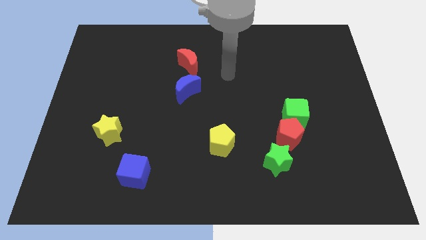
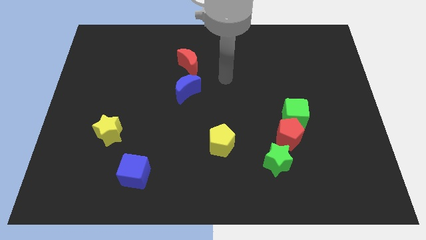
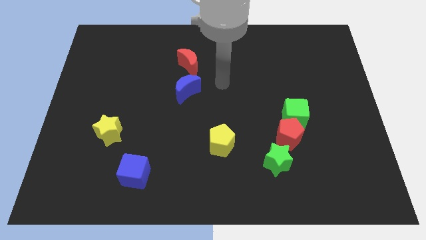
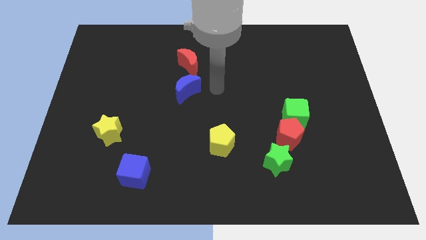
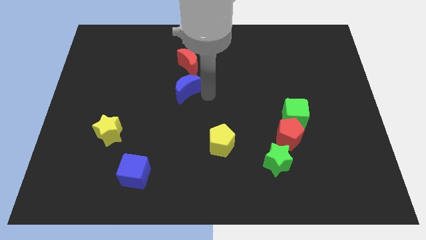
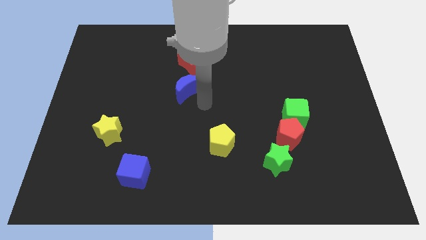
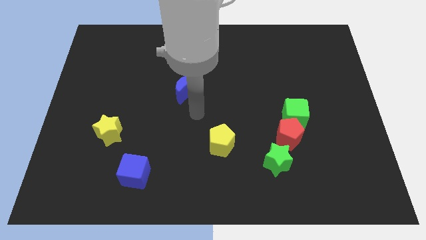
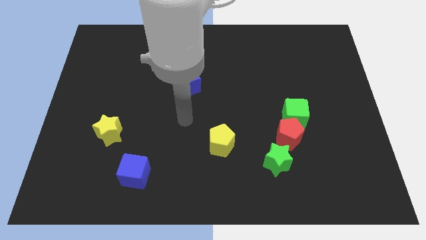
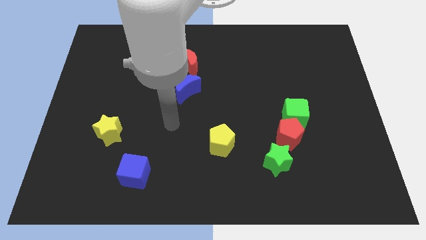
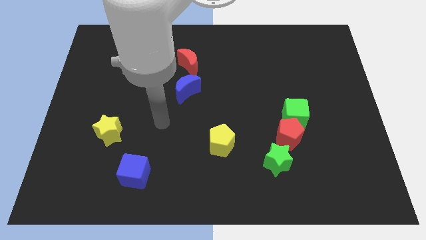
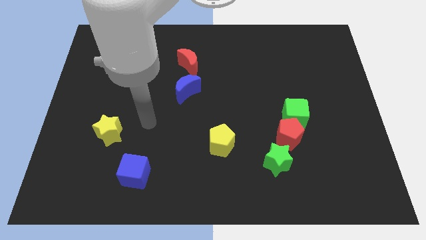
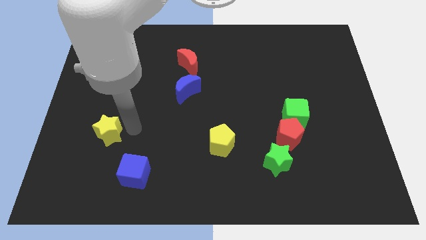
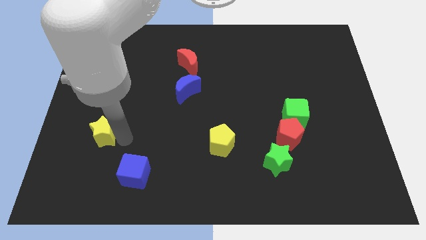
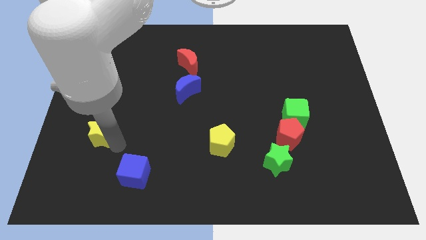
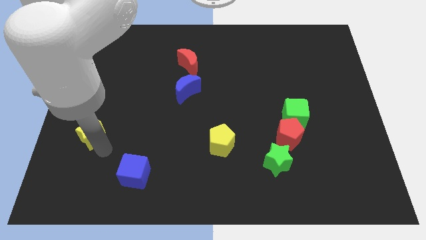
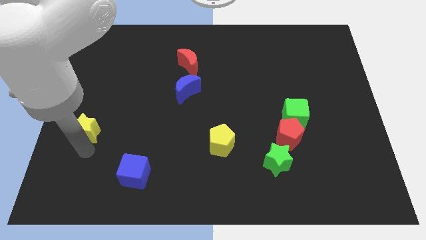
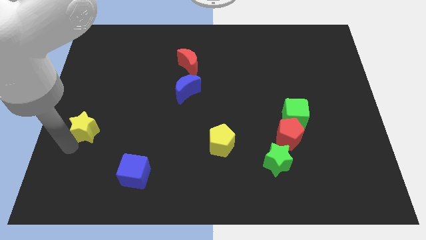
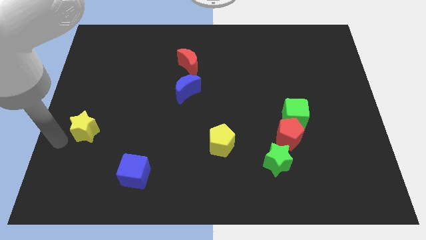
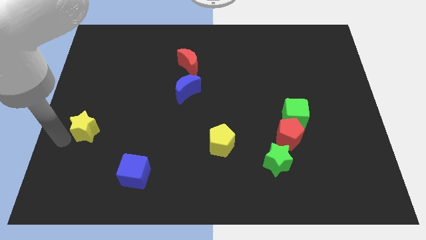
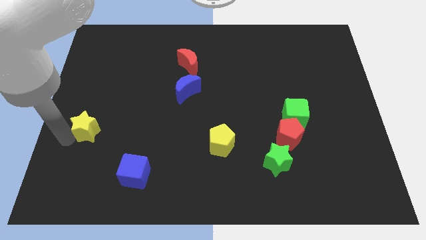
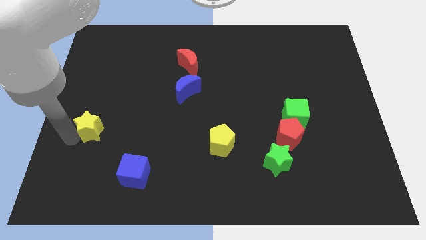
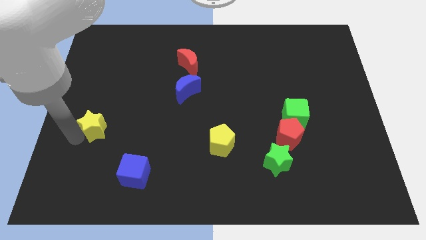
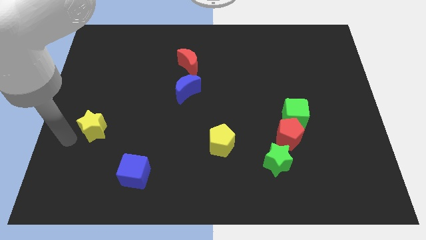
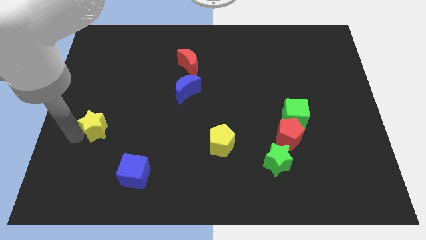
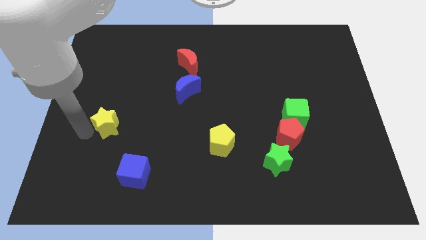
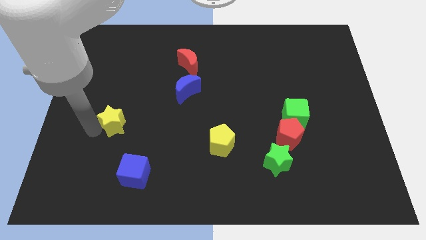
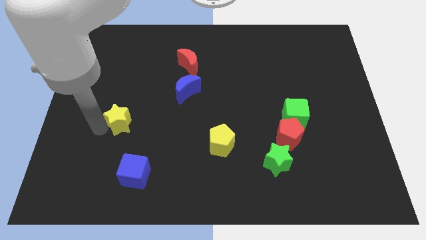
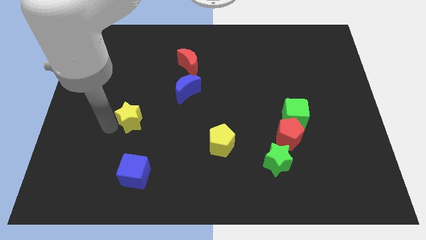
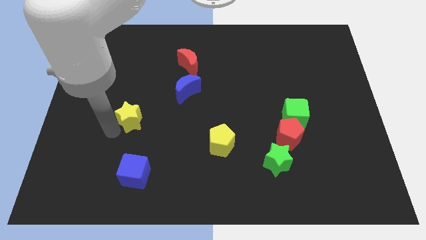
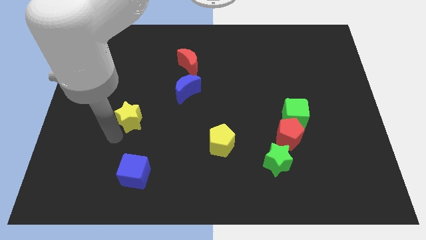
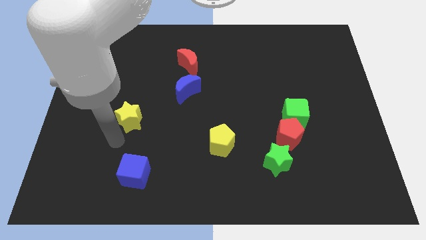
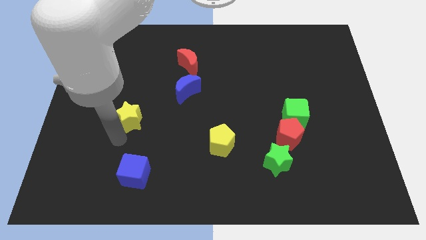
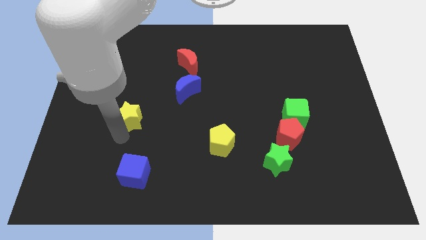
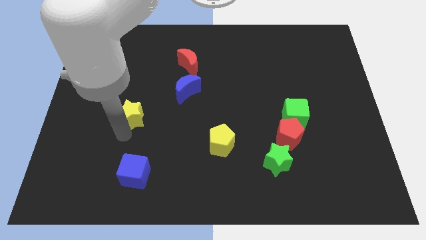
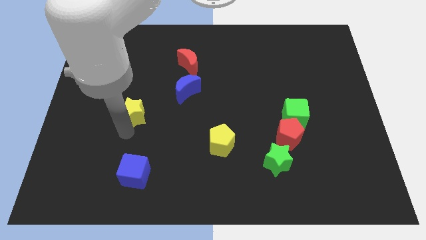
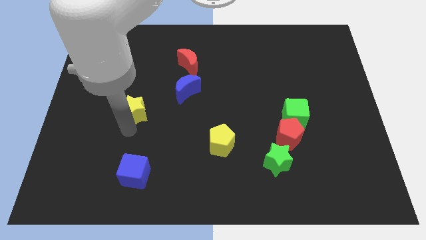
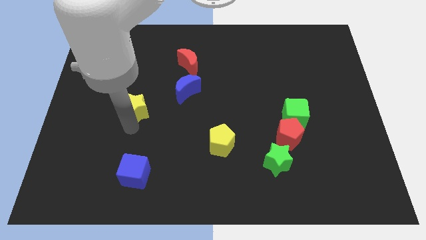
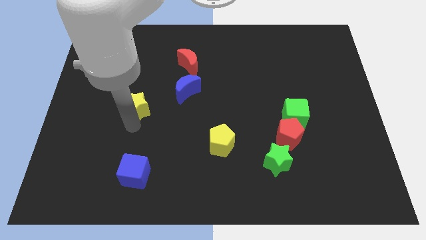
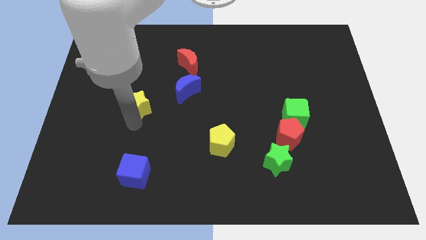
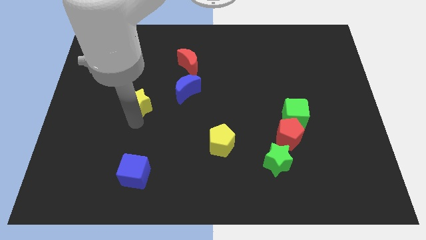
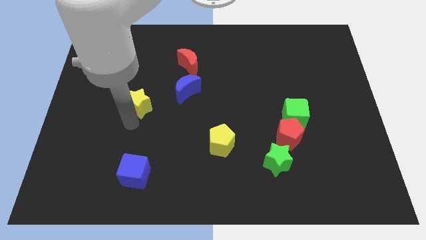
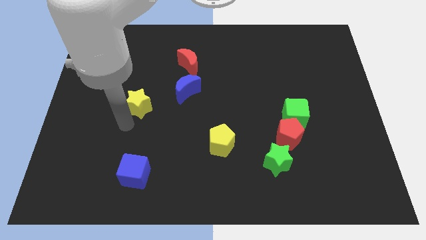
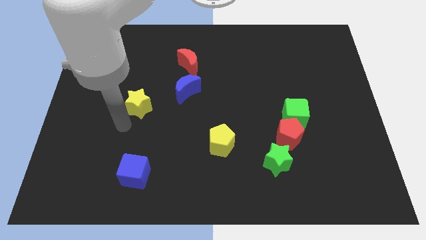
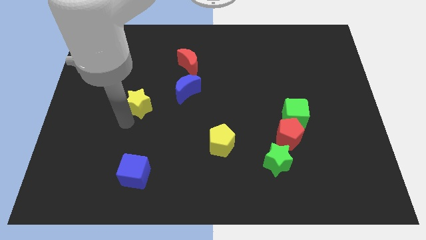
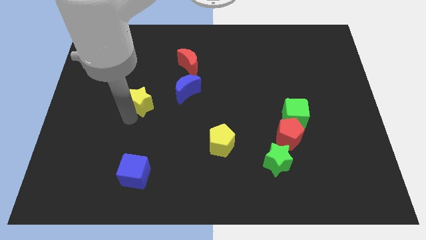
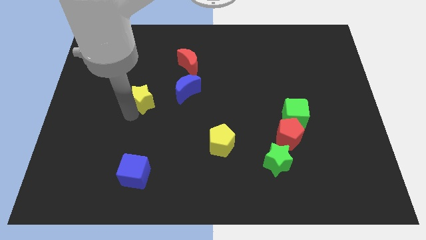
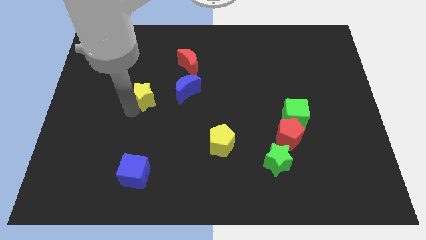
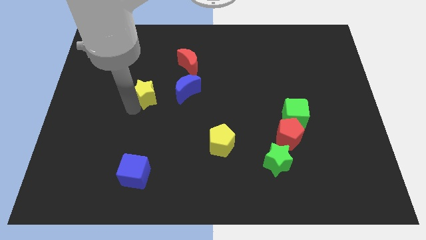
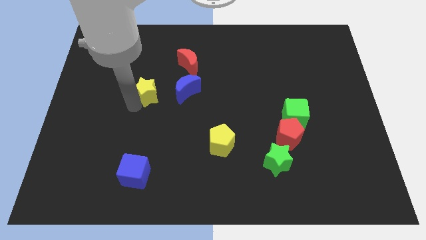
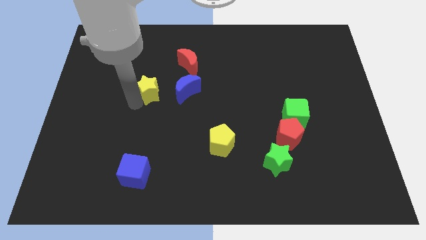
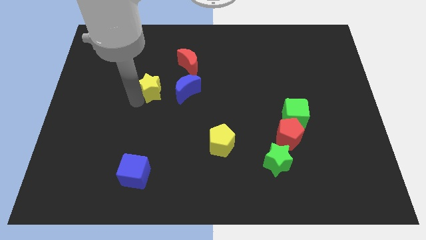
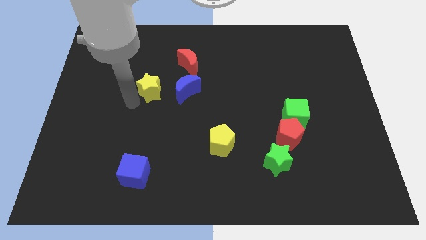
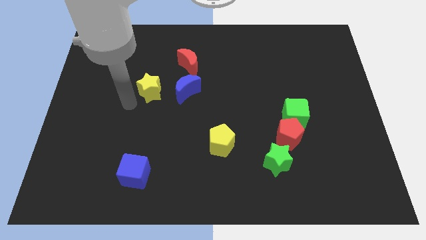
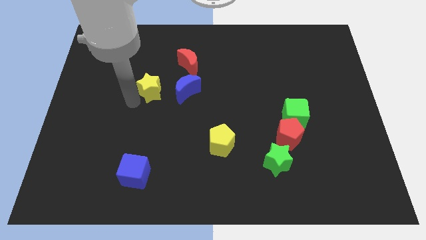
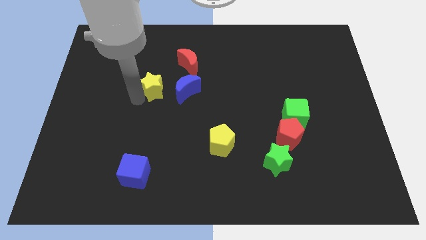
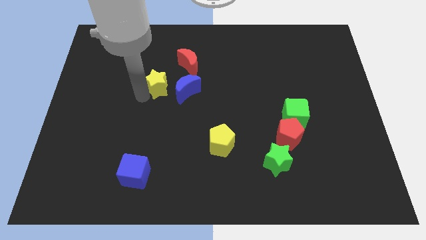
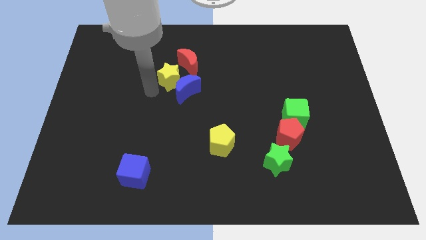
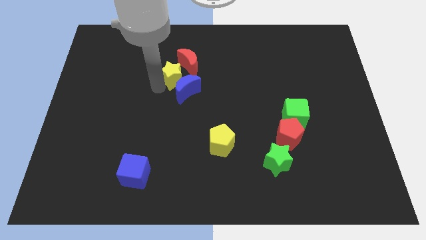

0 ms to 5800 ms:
push the yellow star close to the red moon

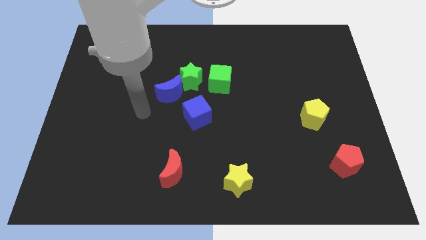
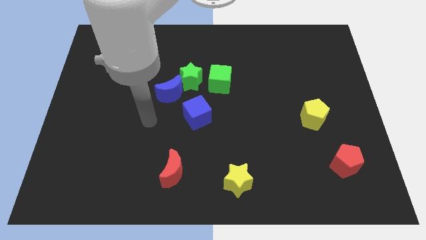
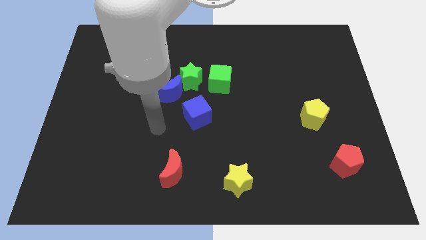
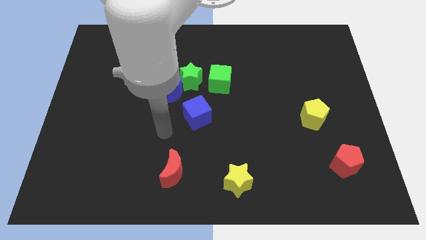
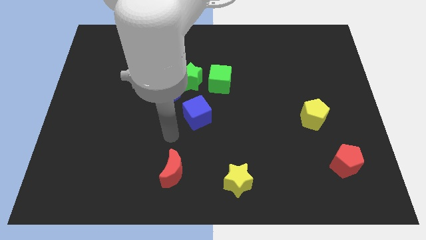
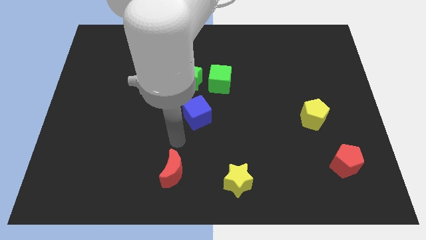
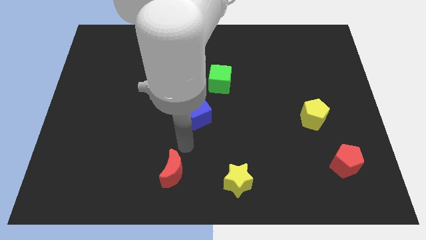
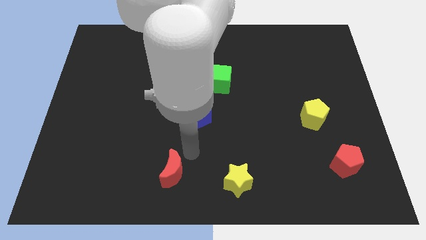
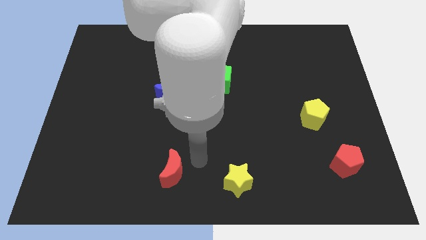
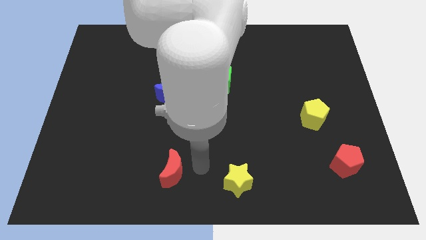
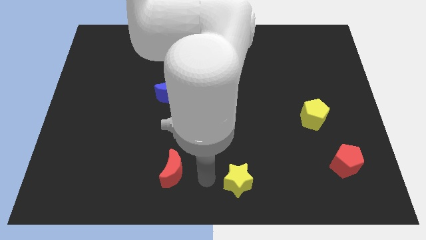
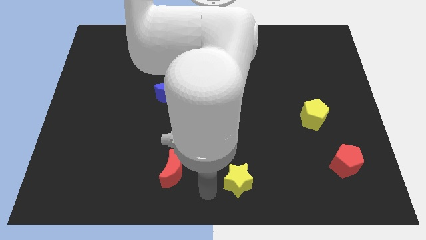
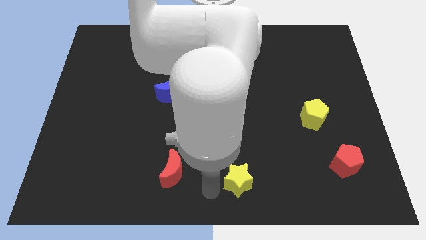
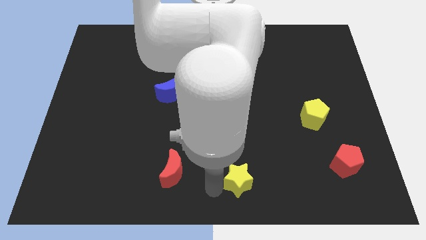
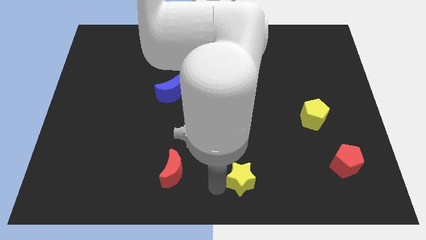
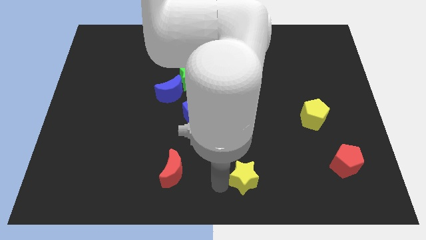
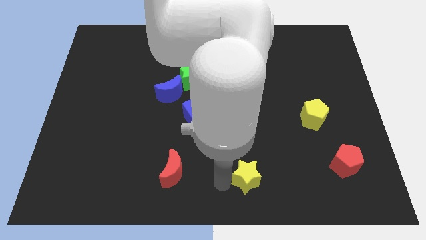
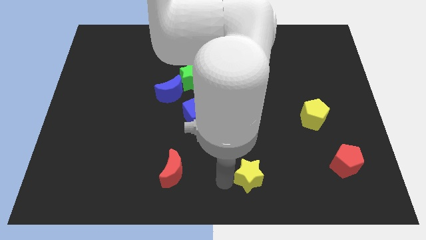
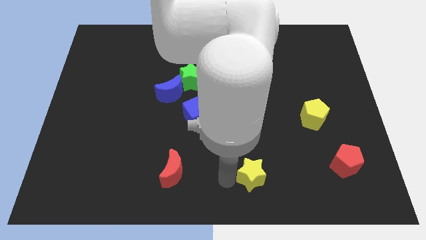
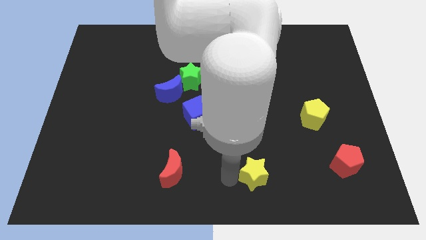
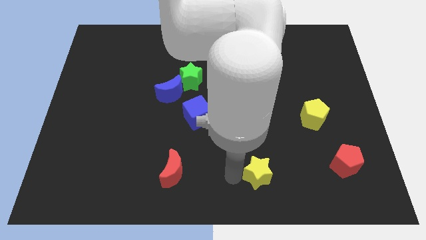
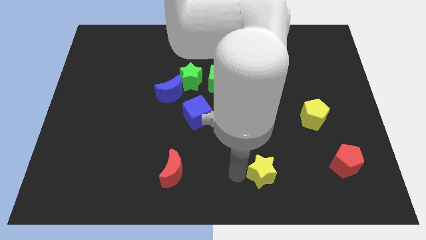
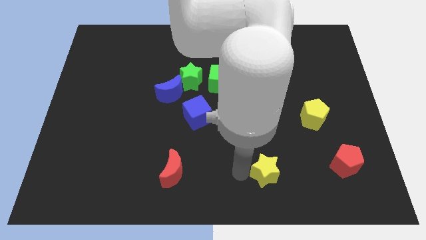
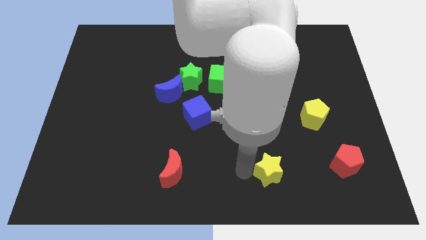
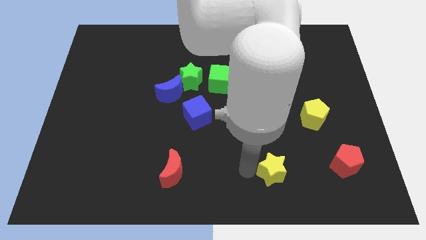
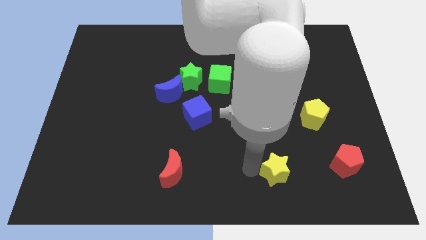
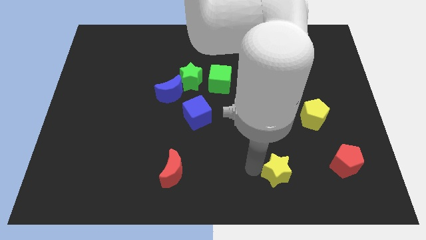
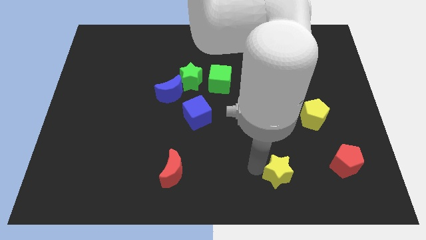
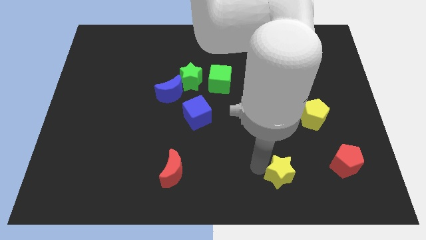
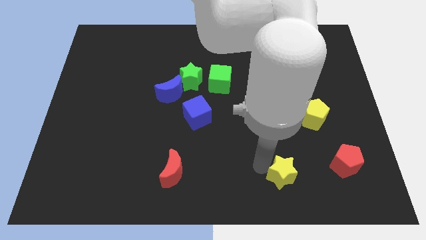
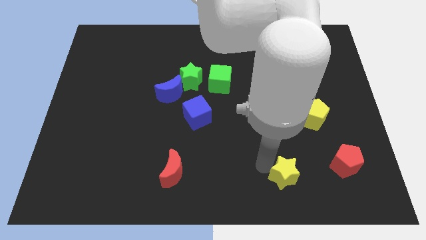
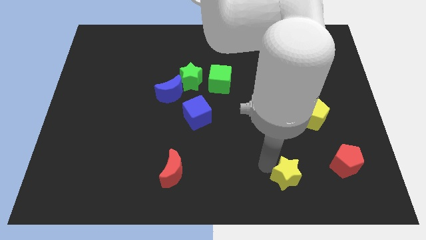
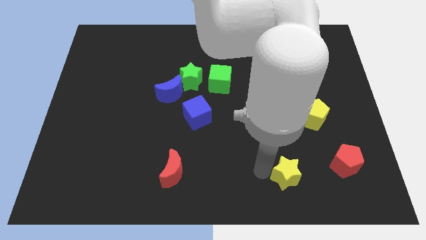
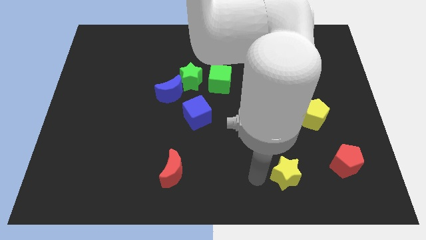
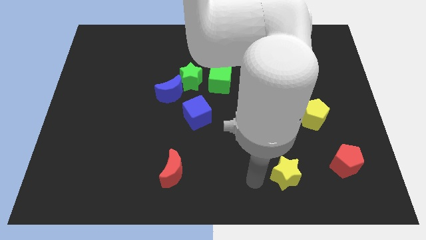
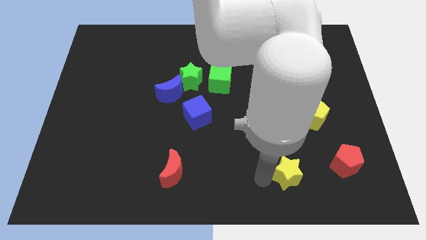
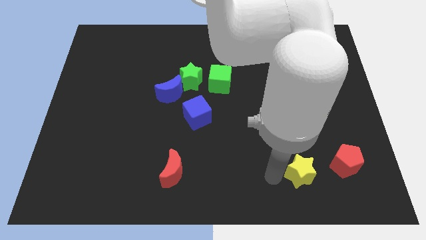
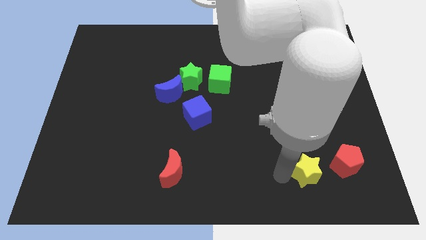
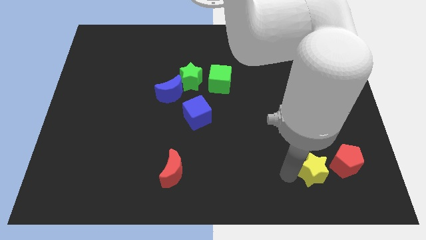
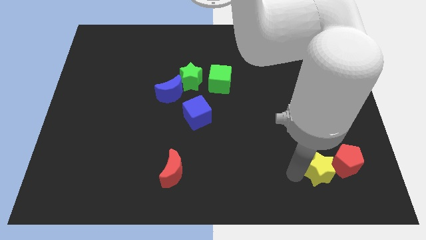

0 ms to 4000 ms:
slide the yellow star close to the red pentagon
